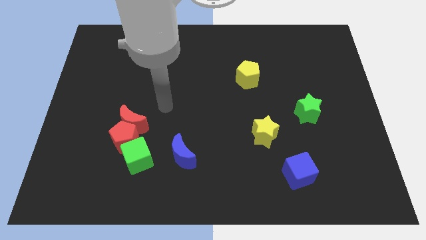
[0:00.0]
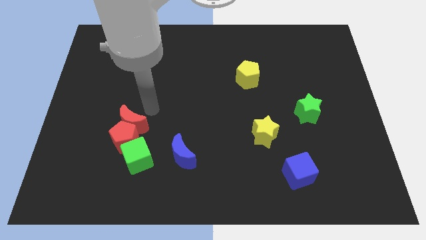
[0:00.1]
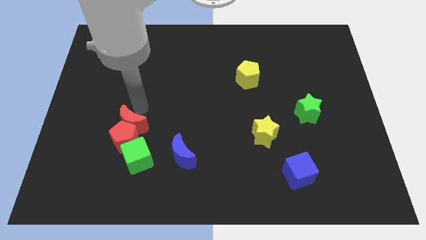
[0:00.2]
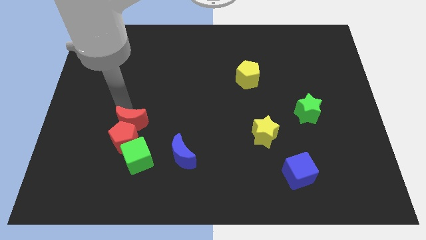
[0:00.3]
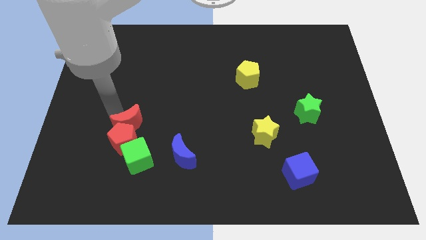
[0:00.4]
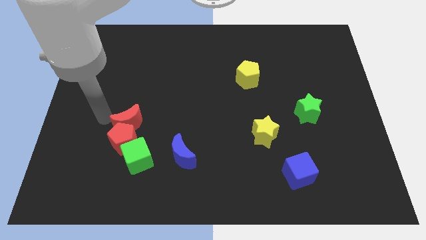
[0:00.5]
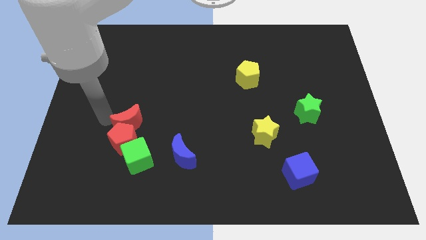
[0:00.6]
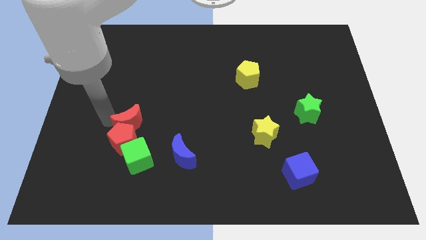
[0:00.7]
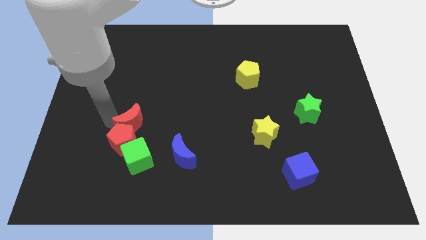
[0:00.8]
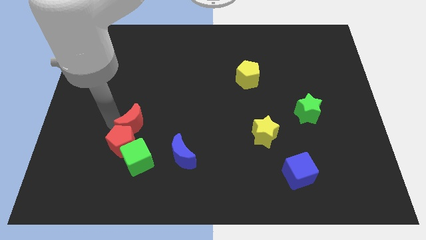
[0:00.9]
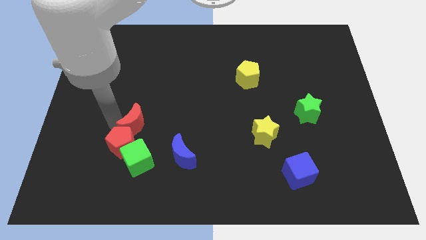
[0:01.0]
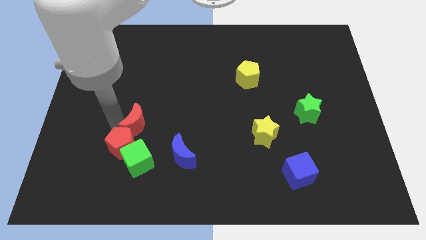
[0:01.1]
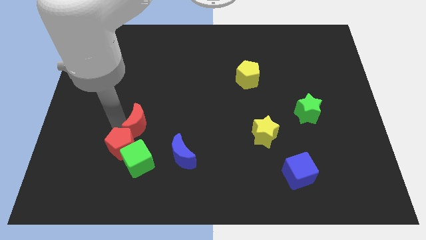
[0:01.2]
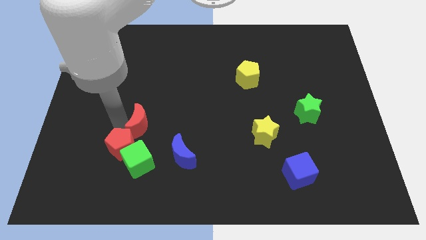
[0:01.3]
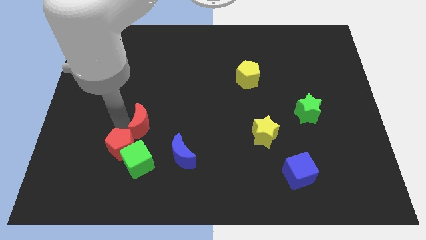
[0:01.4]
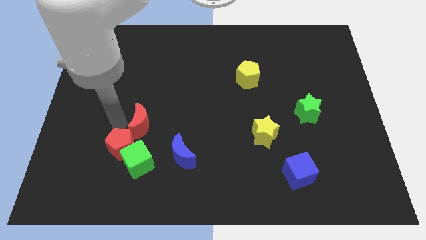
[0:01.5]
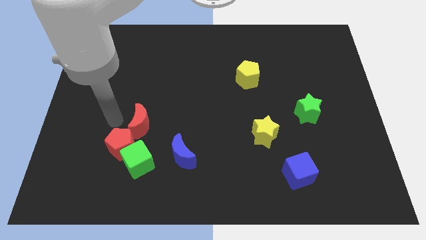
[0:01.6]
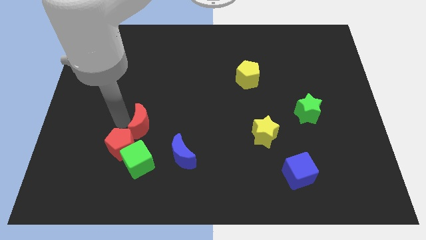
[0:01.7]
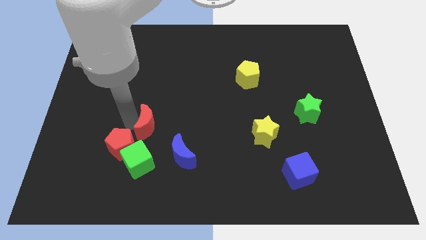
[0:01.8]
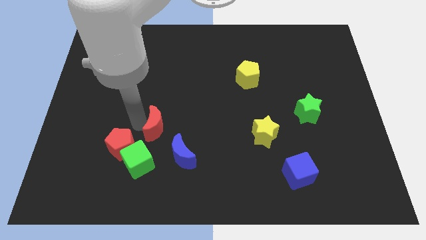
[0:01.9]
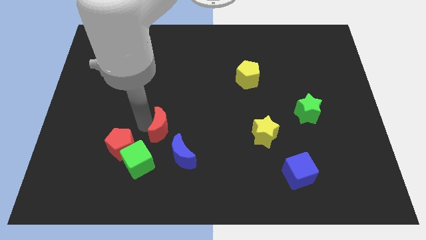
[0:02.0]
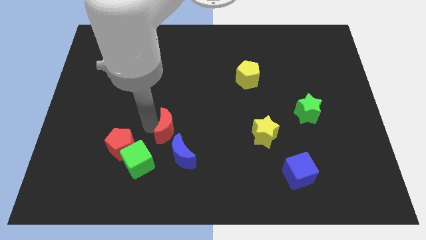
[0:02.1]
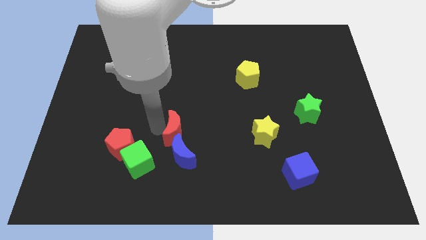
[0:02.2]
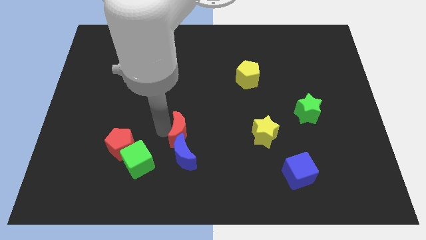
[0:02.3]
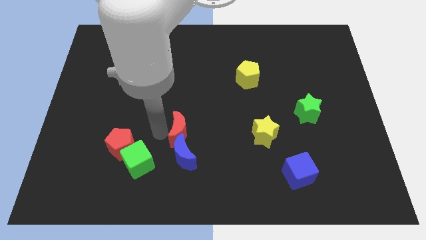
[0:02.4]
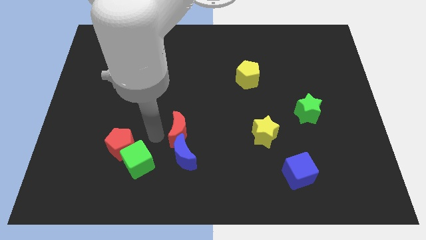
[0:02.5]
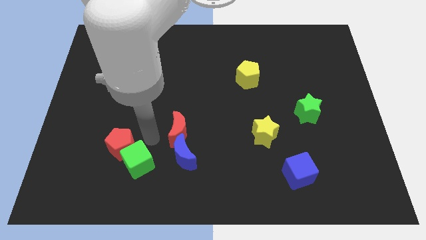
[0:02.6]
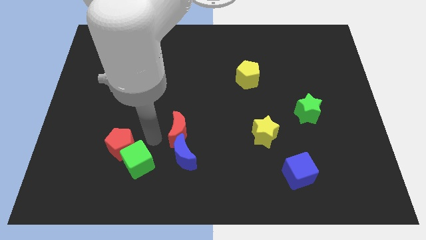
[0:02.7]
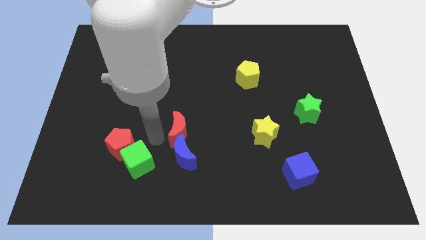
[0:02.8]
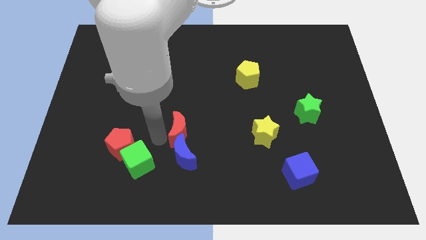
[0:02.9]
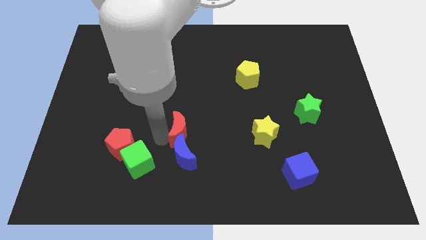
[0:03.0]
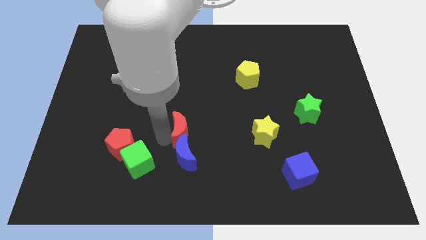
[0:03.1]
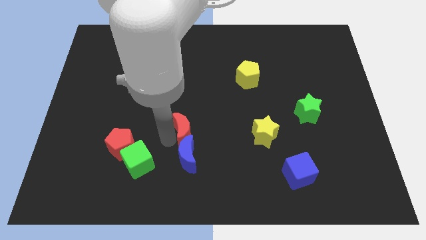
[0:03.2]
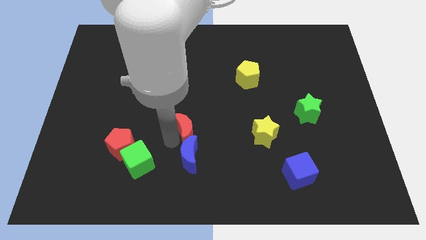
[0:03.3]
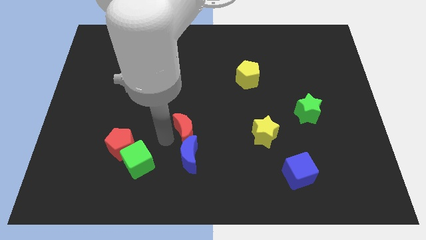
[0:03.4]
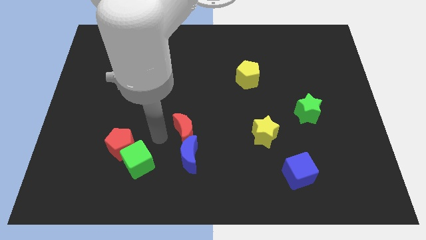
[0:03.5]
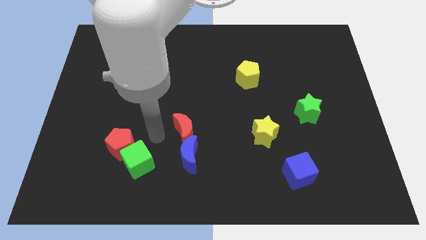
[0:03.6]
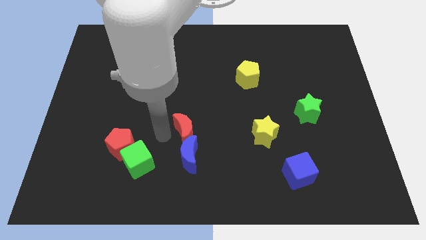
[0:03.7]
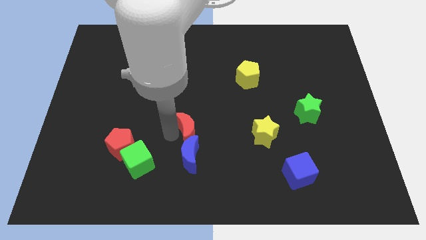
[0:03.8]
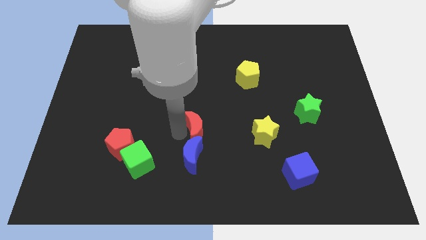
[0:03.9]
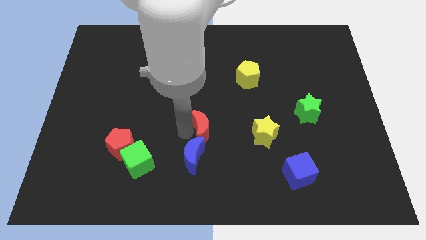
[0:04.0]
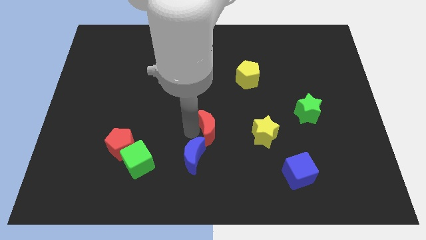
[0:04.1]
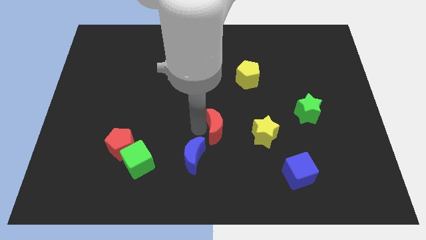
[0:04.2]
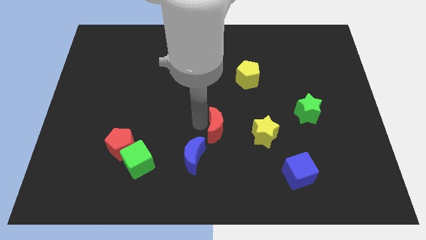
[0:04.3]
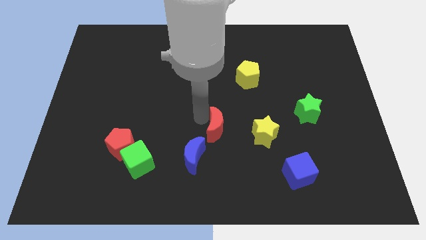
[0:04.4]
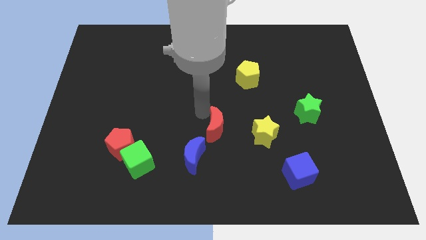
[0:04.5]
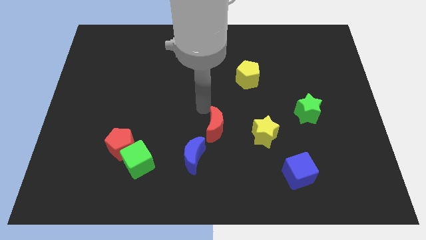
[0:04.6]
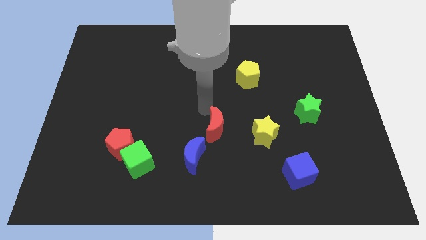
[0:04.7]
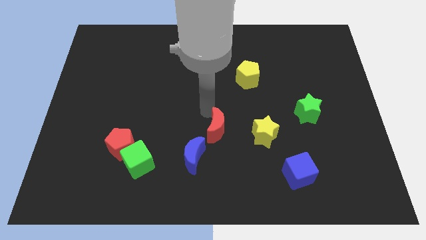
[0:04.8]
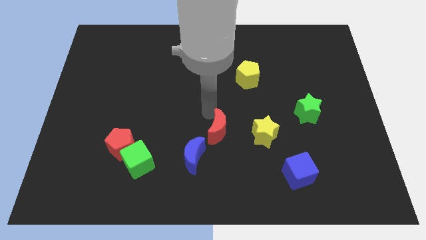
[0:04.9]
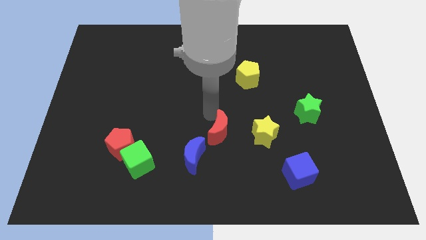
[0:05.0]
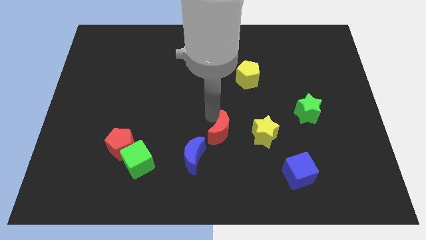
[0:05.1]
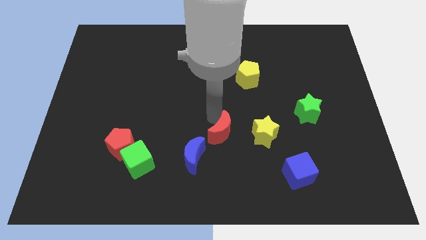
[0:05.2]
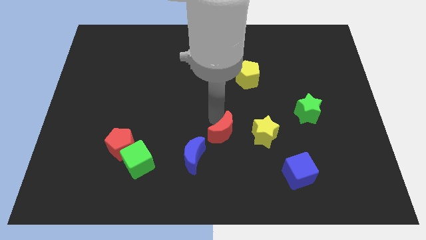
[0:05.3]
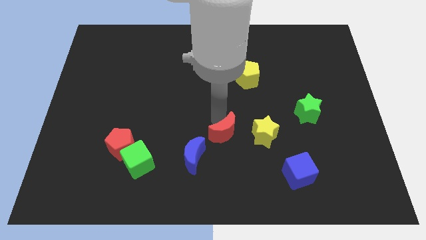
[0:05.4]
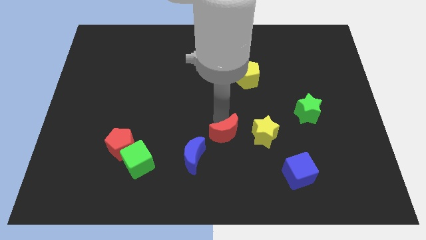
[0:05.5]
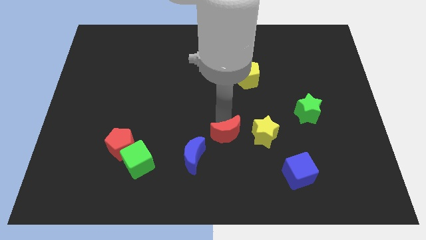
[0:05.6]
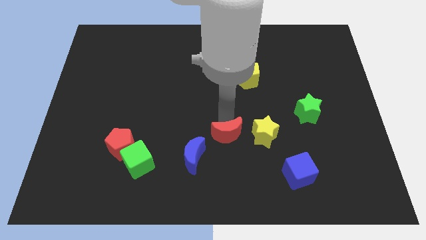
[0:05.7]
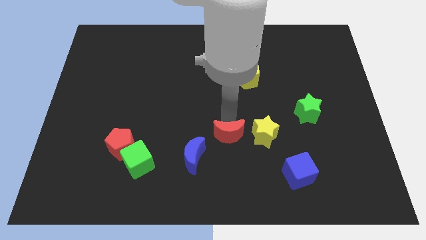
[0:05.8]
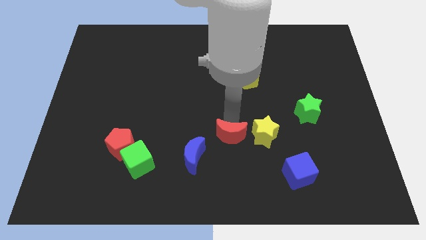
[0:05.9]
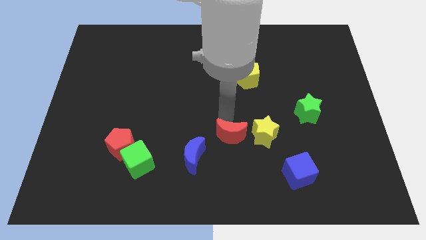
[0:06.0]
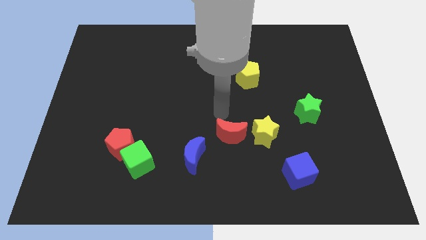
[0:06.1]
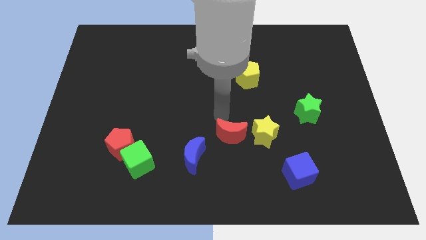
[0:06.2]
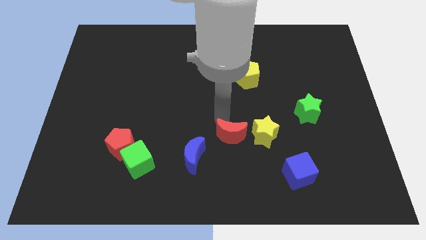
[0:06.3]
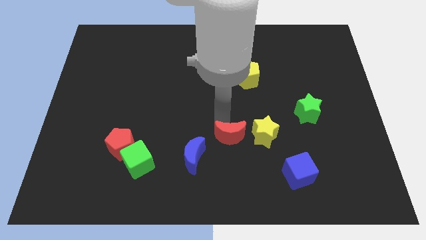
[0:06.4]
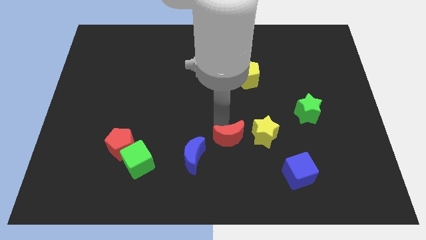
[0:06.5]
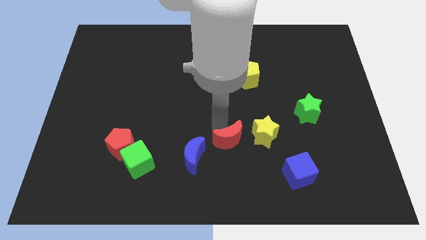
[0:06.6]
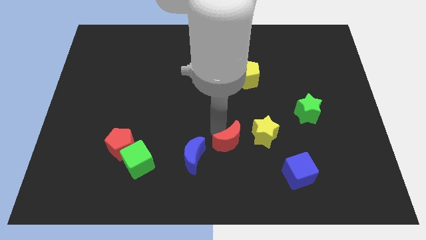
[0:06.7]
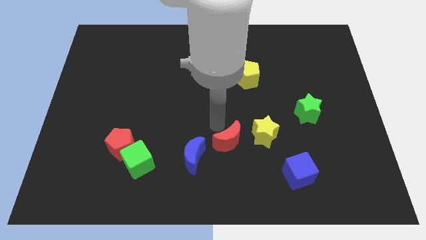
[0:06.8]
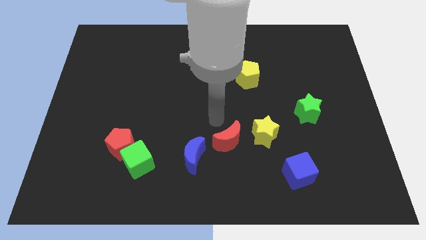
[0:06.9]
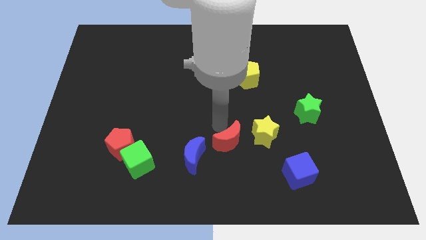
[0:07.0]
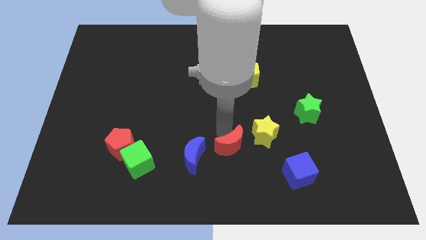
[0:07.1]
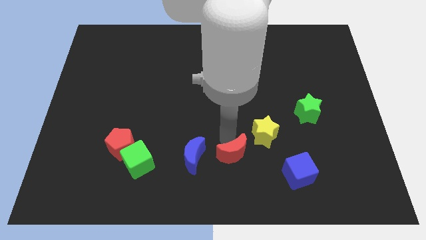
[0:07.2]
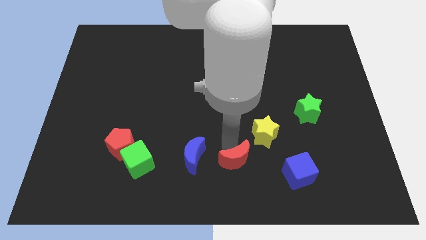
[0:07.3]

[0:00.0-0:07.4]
put the red moon left of the blue cube
